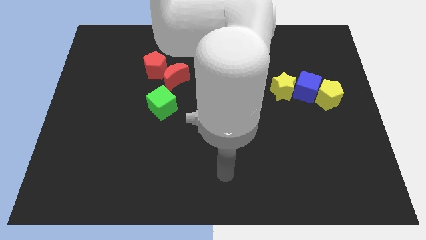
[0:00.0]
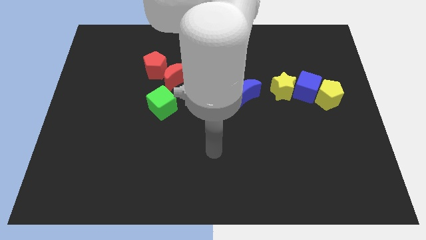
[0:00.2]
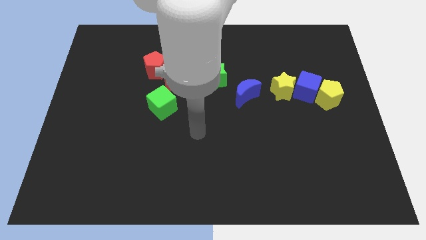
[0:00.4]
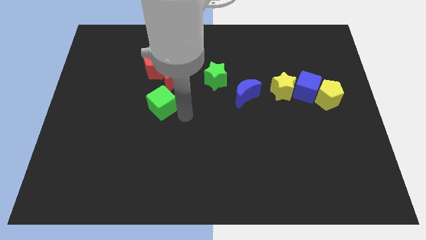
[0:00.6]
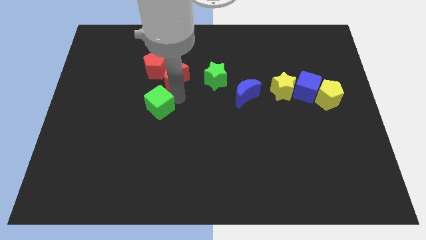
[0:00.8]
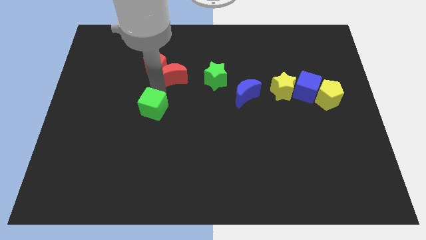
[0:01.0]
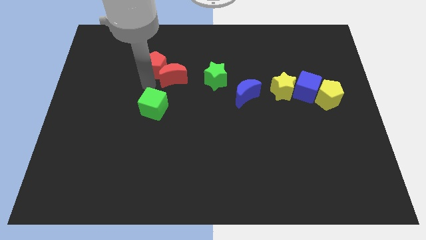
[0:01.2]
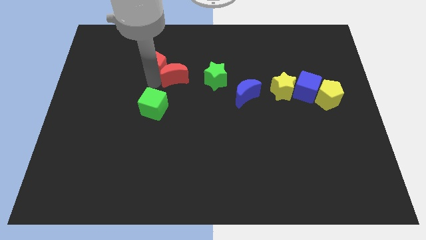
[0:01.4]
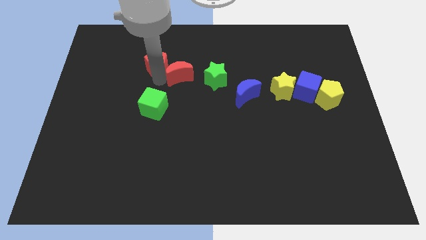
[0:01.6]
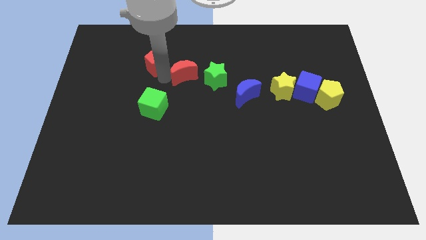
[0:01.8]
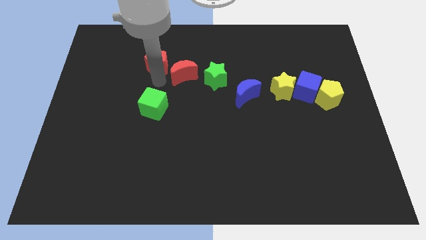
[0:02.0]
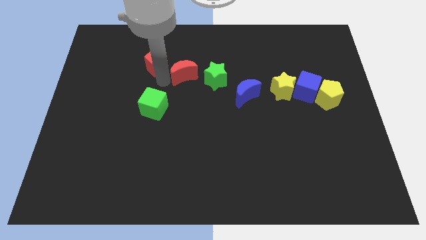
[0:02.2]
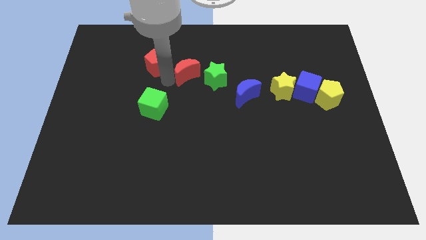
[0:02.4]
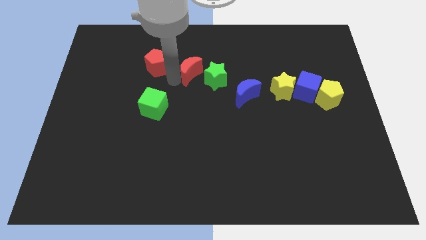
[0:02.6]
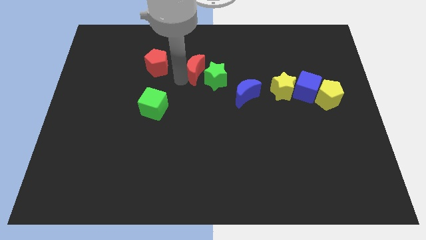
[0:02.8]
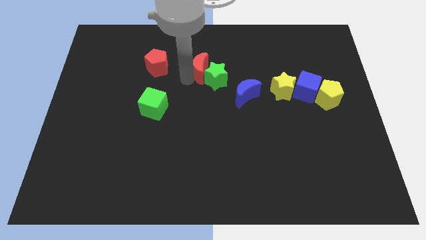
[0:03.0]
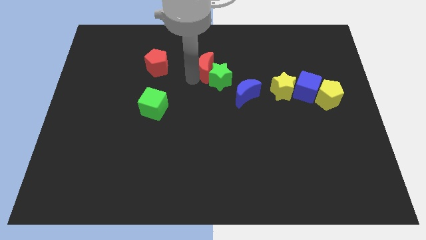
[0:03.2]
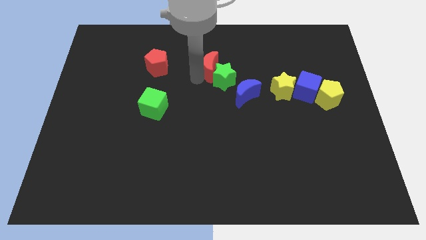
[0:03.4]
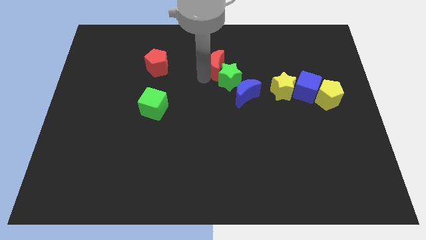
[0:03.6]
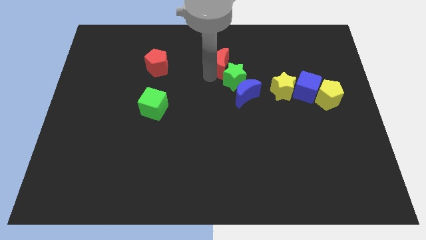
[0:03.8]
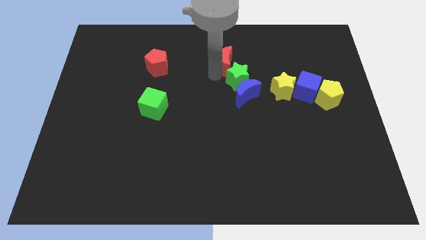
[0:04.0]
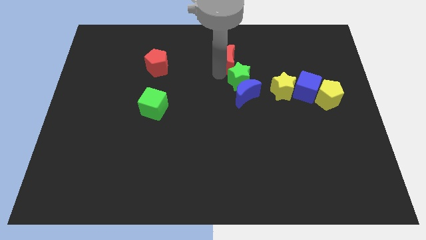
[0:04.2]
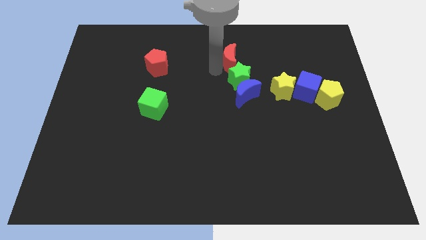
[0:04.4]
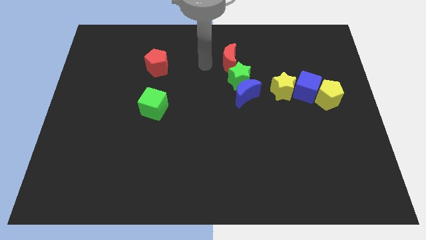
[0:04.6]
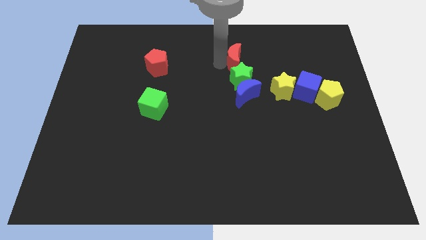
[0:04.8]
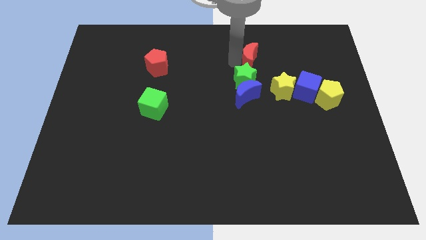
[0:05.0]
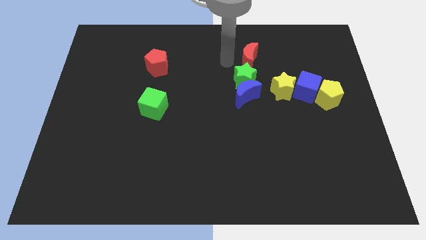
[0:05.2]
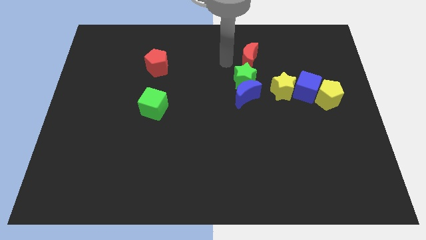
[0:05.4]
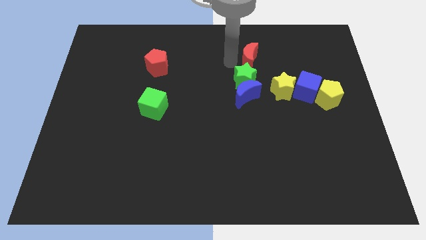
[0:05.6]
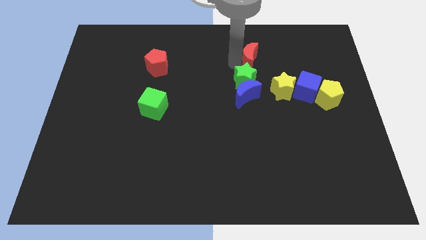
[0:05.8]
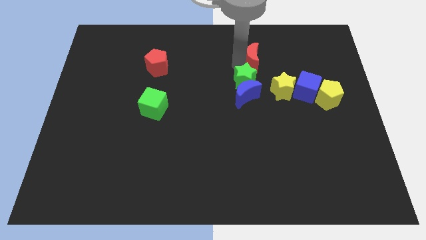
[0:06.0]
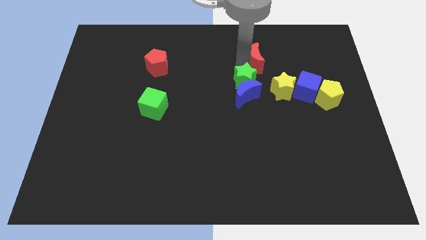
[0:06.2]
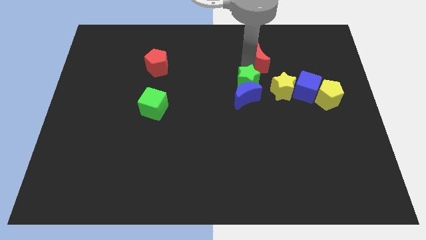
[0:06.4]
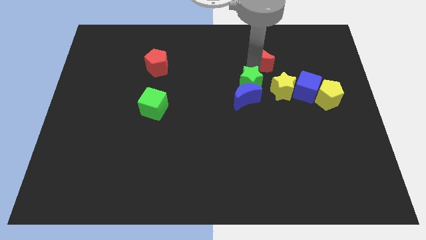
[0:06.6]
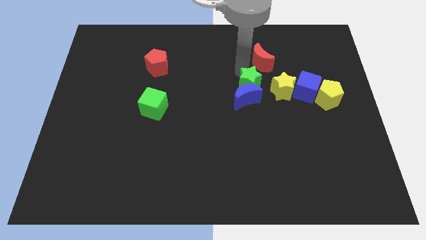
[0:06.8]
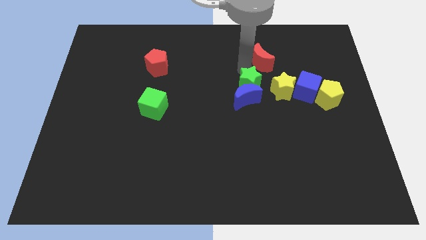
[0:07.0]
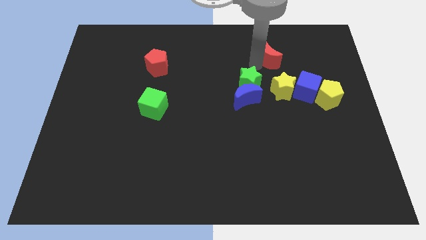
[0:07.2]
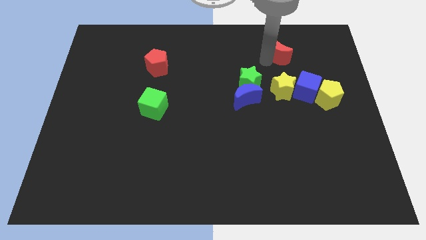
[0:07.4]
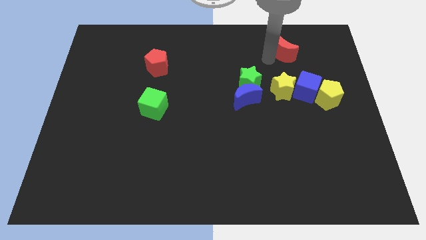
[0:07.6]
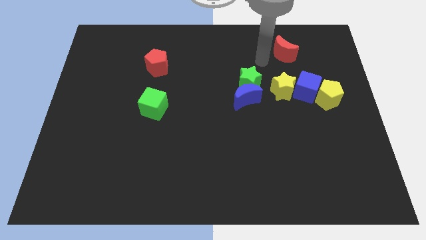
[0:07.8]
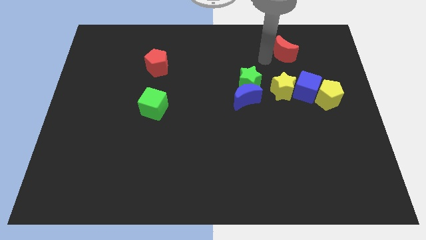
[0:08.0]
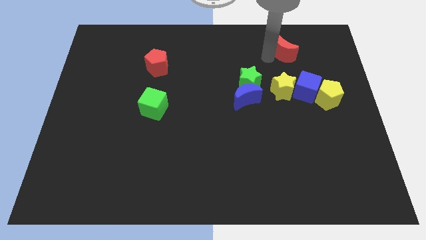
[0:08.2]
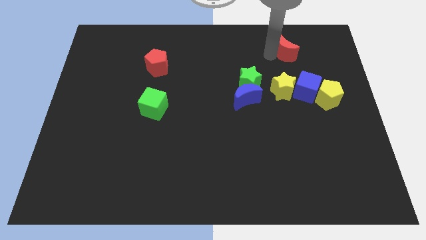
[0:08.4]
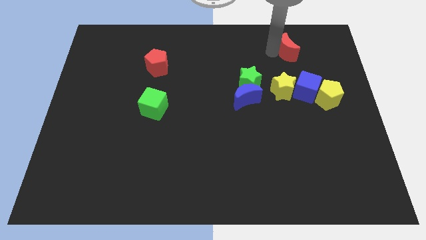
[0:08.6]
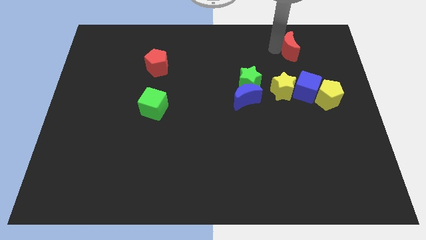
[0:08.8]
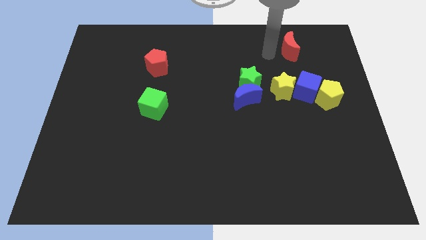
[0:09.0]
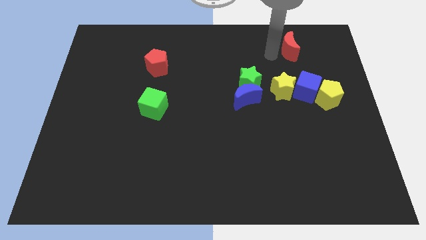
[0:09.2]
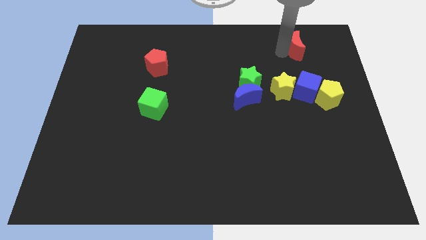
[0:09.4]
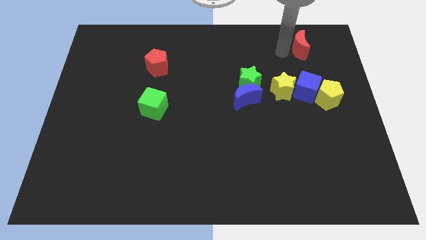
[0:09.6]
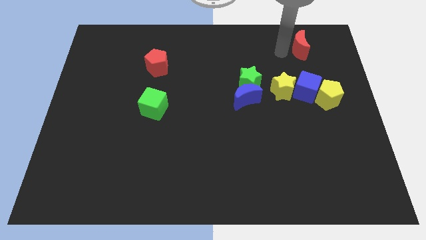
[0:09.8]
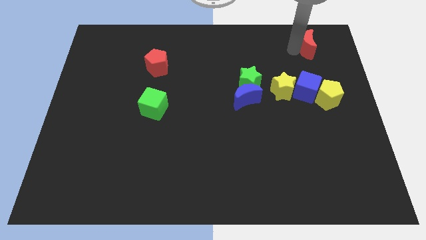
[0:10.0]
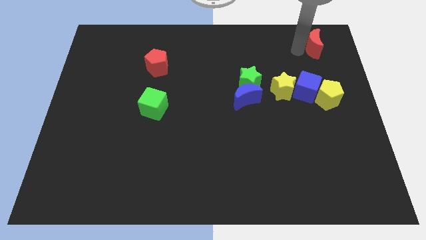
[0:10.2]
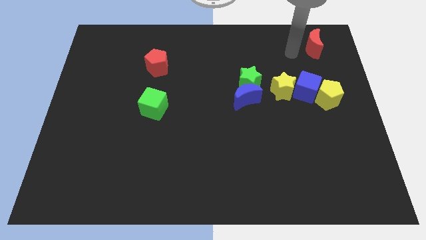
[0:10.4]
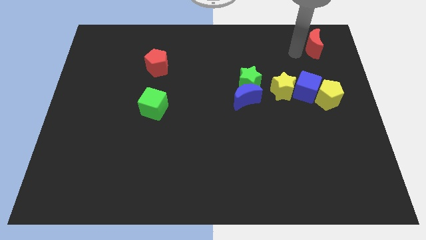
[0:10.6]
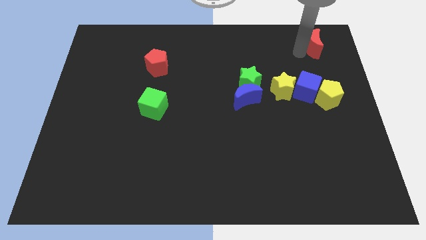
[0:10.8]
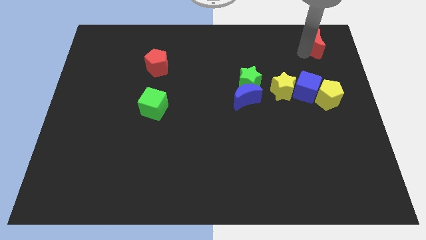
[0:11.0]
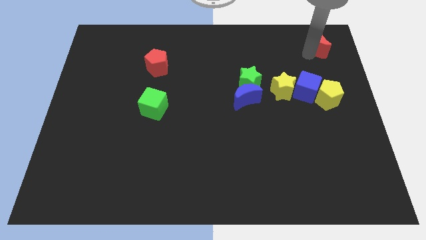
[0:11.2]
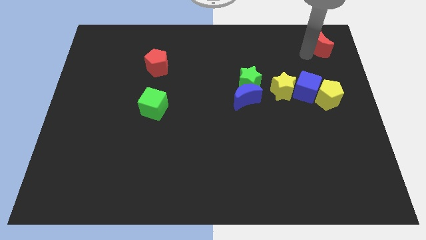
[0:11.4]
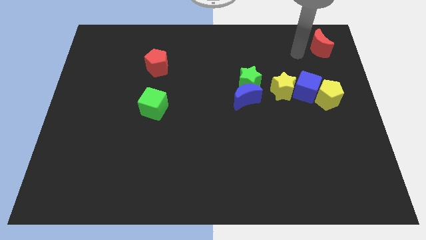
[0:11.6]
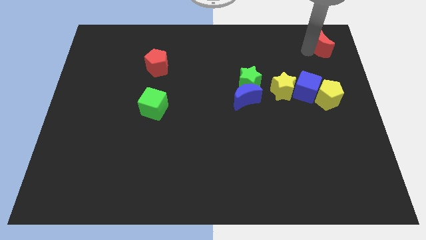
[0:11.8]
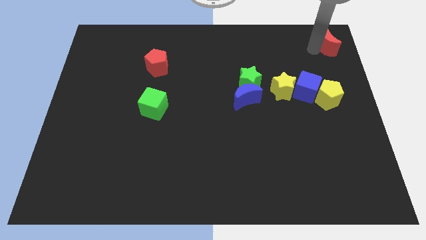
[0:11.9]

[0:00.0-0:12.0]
put the red moon to the top right of the board
